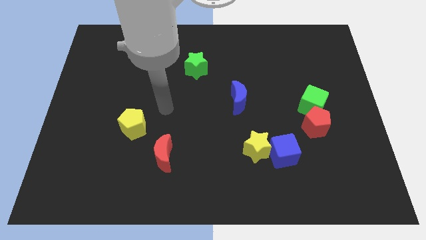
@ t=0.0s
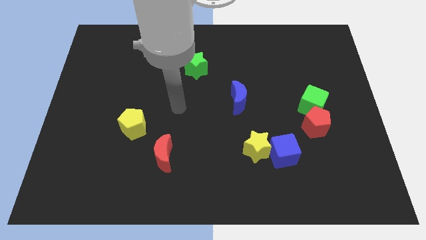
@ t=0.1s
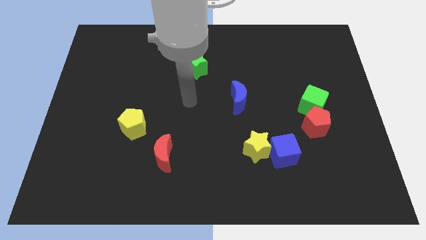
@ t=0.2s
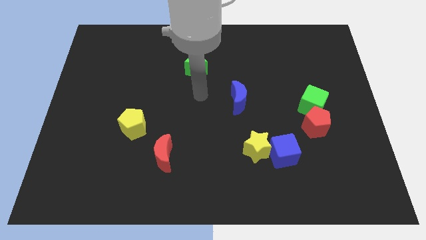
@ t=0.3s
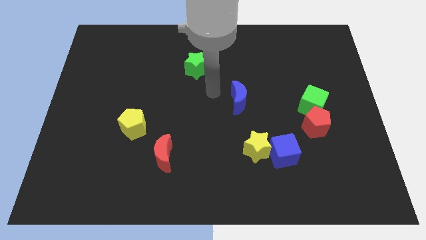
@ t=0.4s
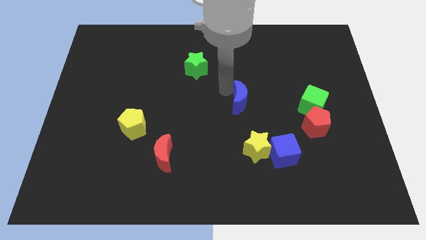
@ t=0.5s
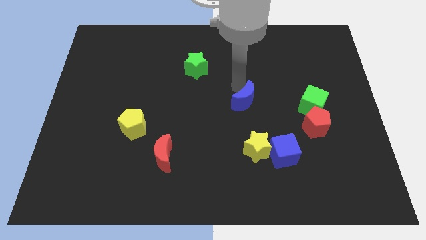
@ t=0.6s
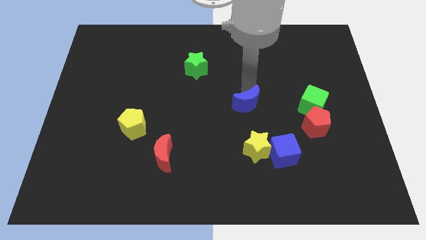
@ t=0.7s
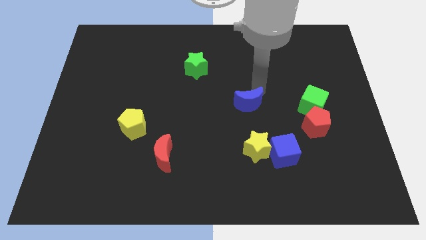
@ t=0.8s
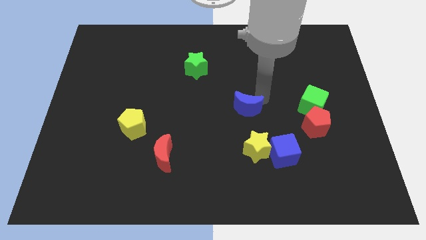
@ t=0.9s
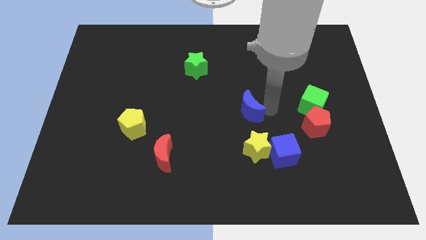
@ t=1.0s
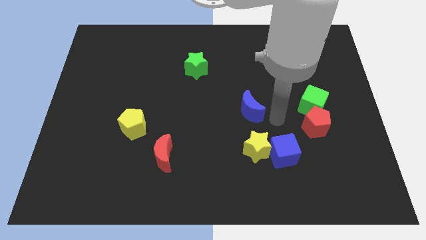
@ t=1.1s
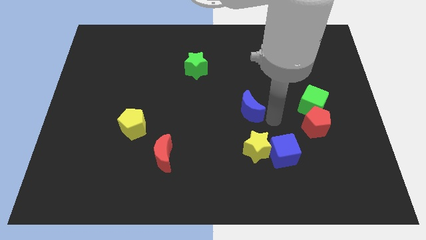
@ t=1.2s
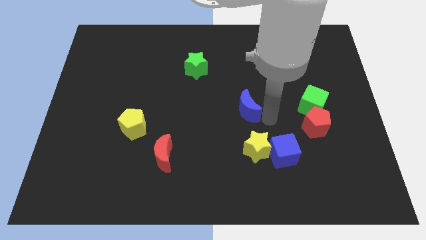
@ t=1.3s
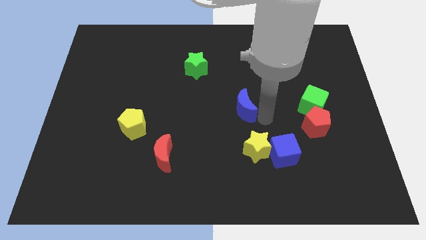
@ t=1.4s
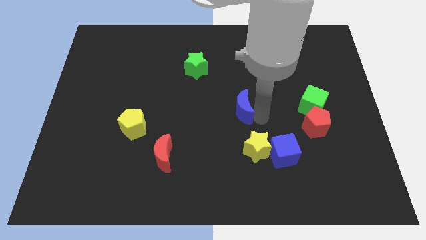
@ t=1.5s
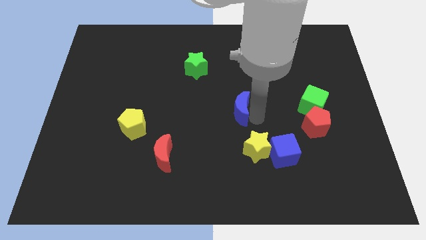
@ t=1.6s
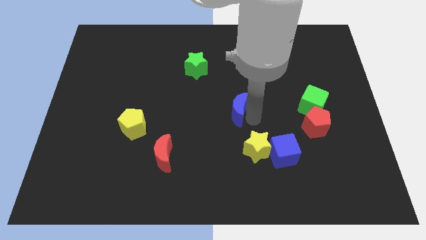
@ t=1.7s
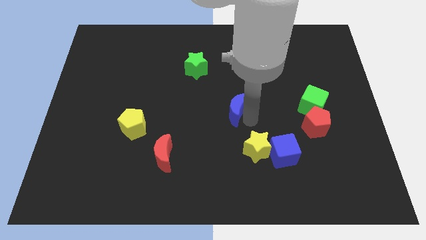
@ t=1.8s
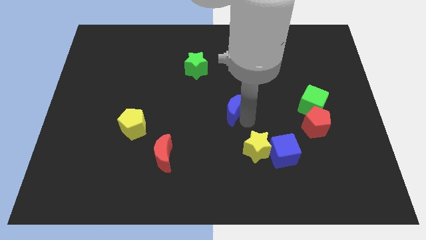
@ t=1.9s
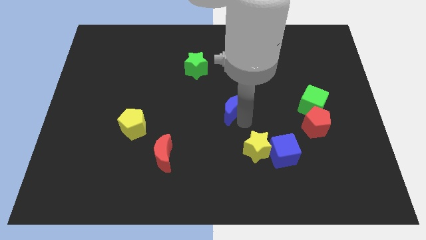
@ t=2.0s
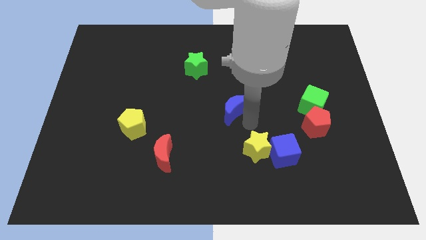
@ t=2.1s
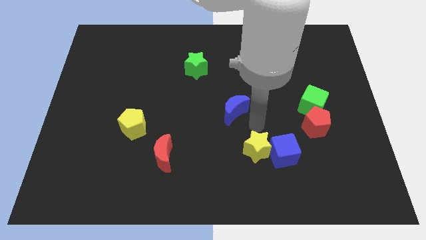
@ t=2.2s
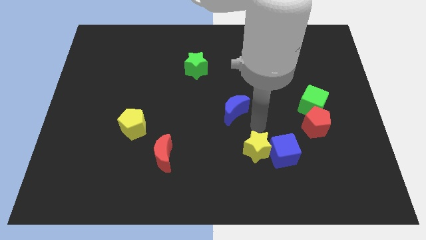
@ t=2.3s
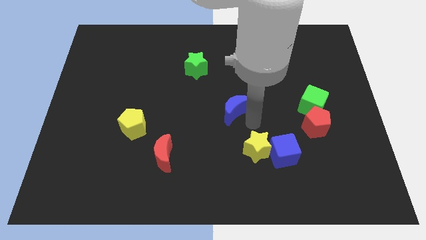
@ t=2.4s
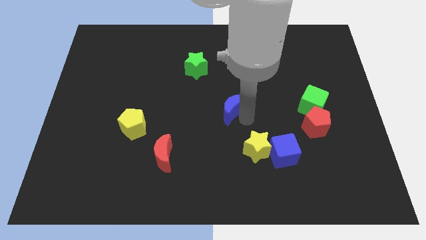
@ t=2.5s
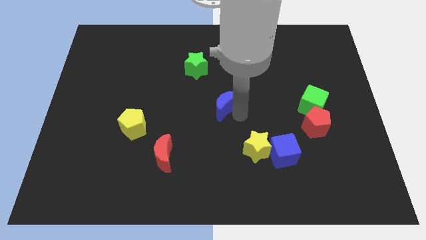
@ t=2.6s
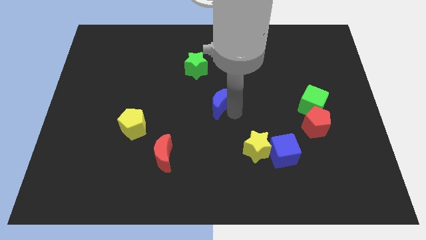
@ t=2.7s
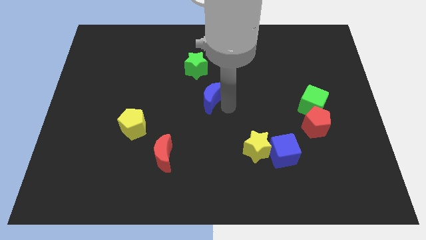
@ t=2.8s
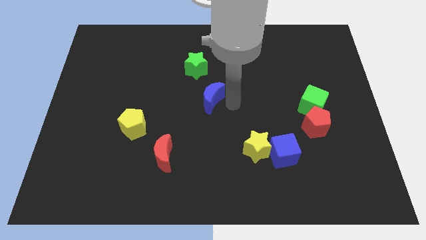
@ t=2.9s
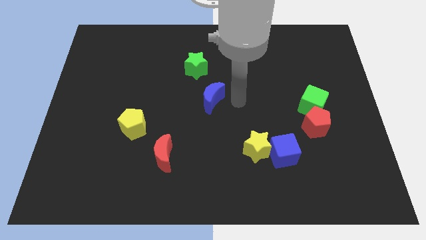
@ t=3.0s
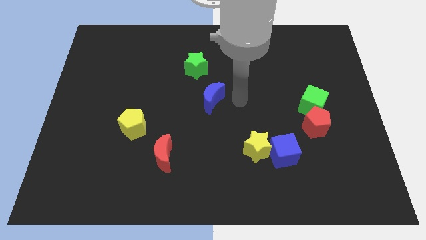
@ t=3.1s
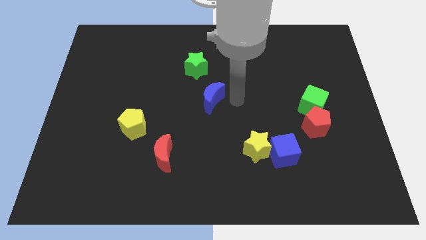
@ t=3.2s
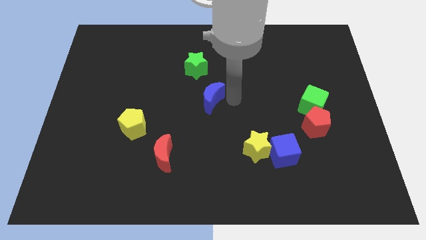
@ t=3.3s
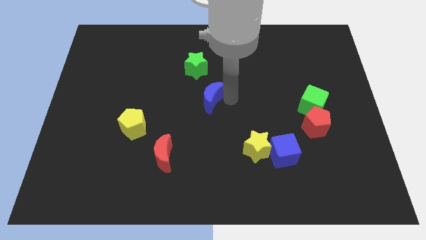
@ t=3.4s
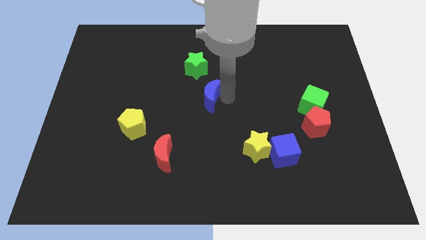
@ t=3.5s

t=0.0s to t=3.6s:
push the blue moon left a little bit

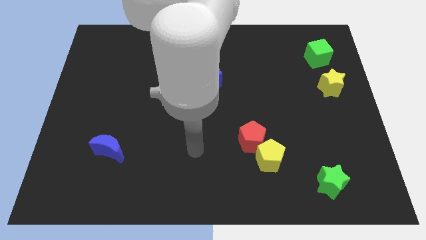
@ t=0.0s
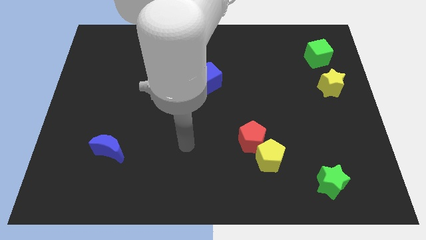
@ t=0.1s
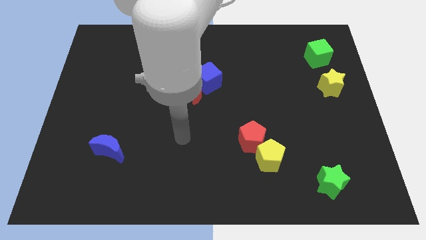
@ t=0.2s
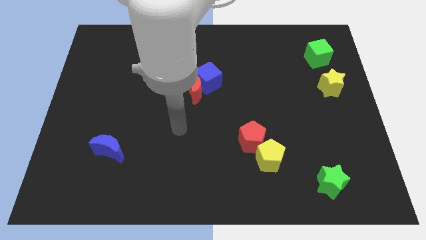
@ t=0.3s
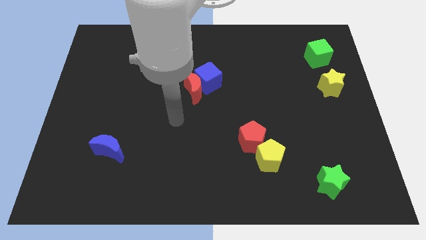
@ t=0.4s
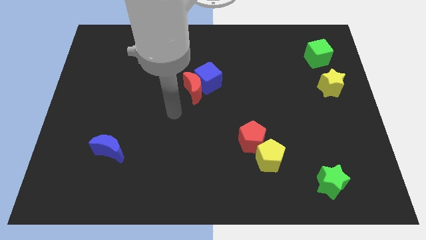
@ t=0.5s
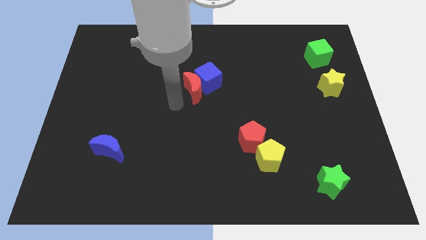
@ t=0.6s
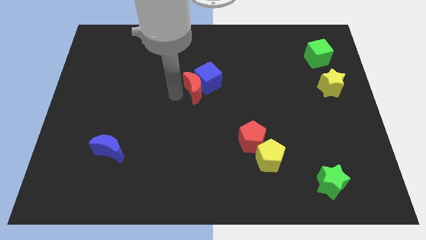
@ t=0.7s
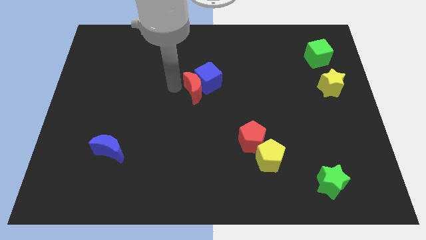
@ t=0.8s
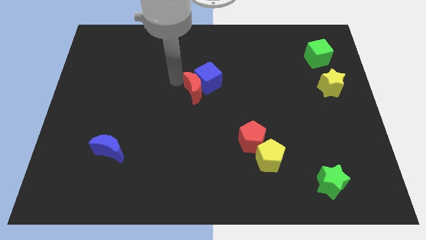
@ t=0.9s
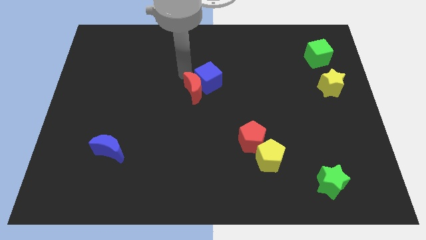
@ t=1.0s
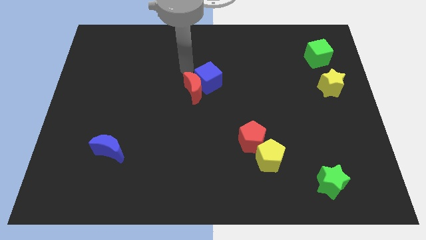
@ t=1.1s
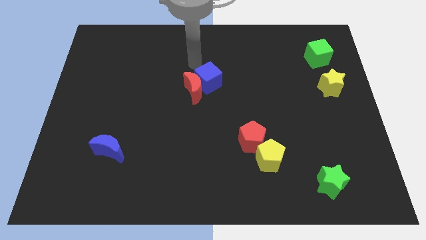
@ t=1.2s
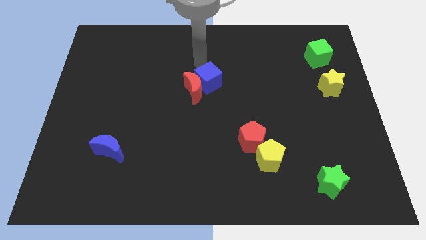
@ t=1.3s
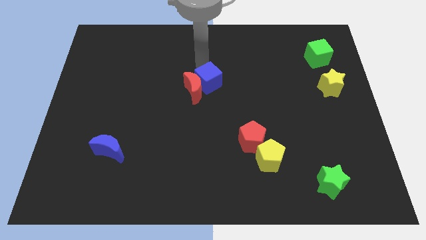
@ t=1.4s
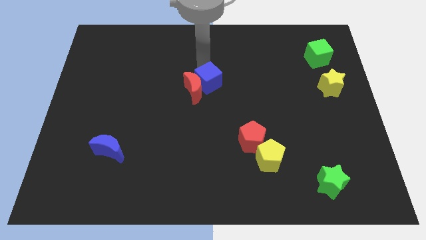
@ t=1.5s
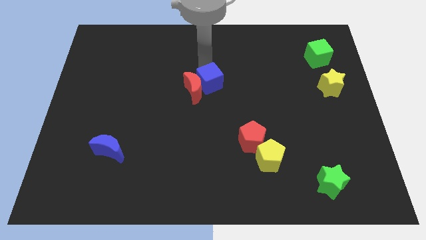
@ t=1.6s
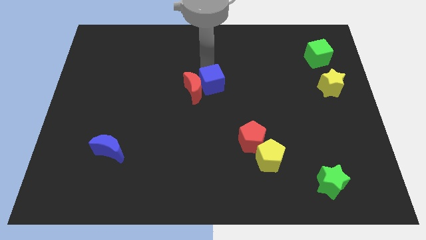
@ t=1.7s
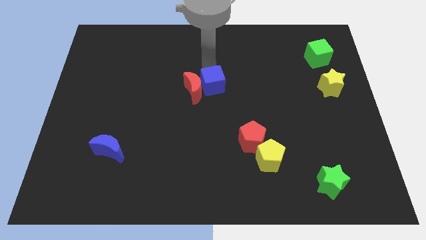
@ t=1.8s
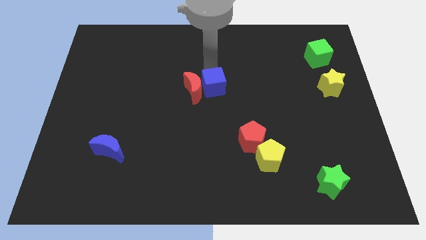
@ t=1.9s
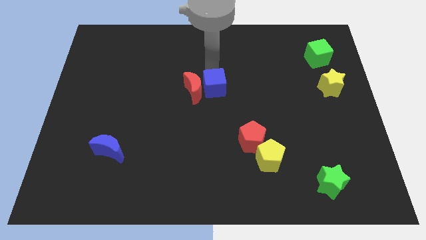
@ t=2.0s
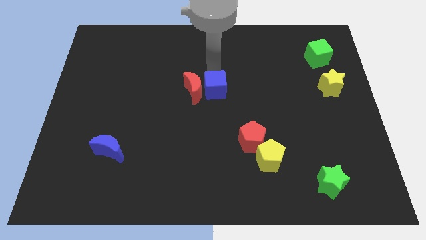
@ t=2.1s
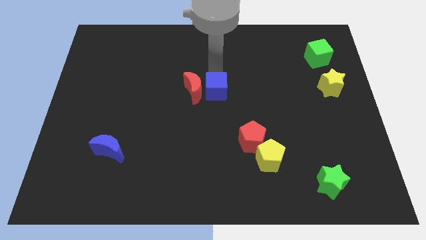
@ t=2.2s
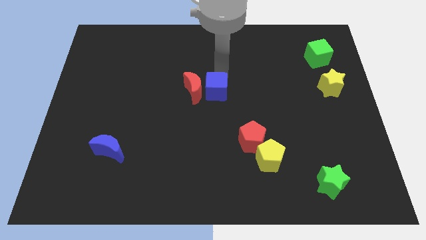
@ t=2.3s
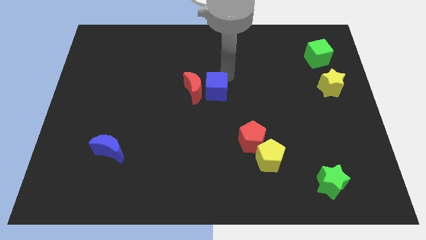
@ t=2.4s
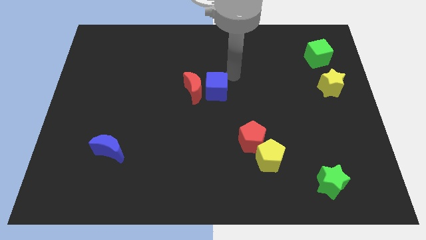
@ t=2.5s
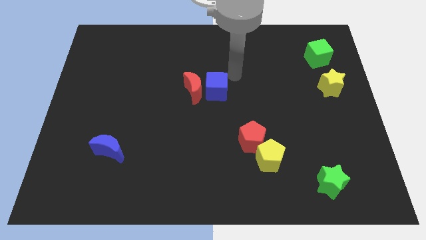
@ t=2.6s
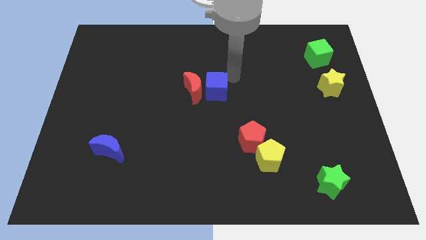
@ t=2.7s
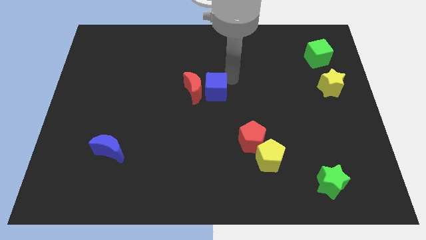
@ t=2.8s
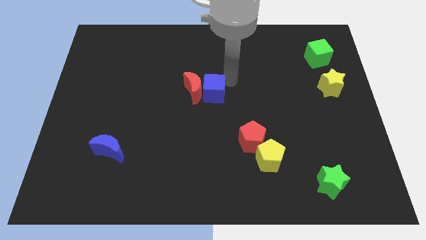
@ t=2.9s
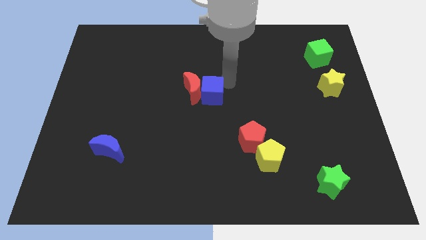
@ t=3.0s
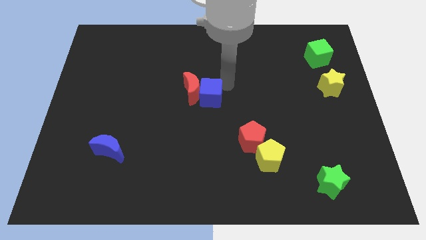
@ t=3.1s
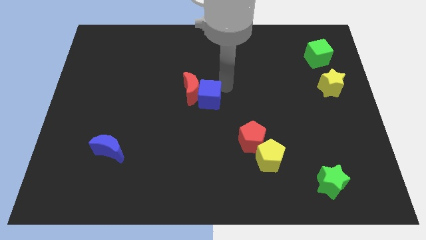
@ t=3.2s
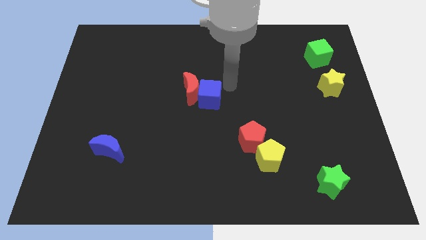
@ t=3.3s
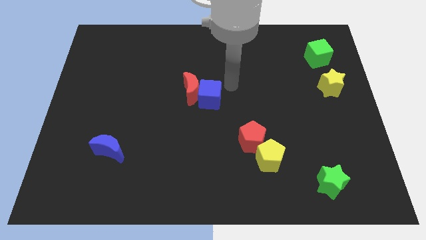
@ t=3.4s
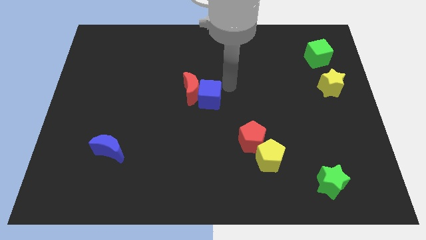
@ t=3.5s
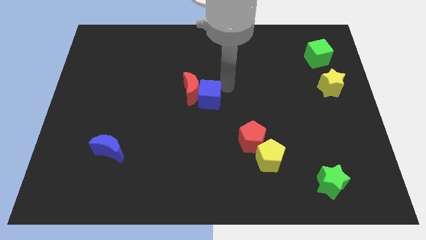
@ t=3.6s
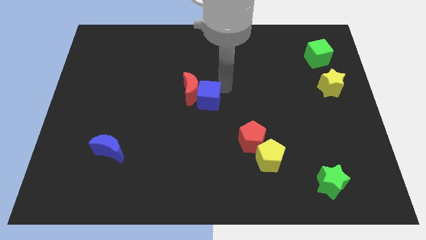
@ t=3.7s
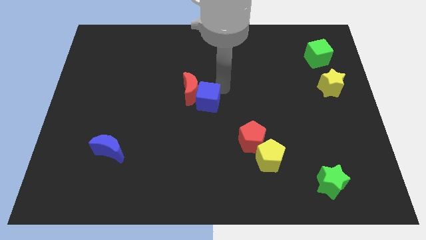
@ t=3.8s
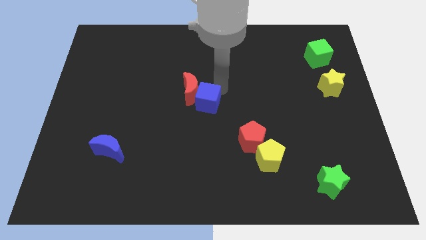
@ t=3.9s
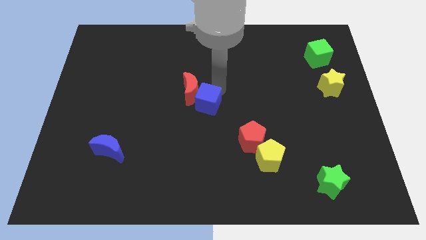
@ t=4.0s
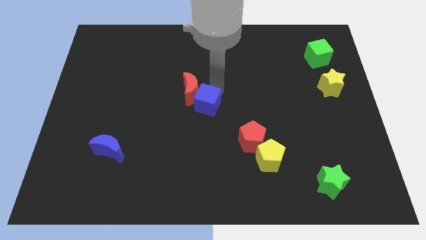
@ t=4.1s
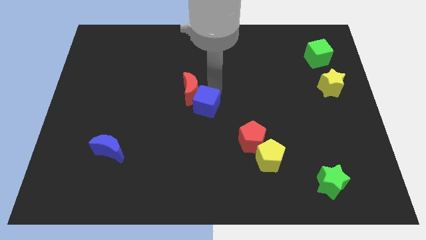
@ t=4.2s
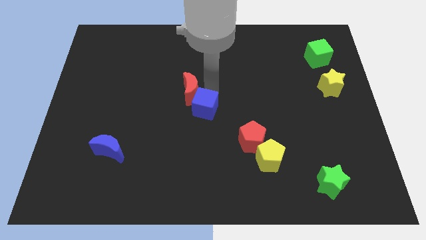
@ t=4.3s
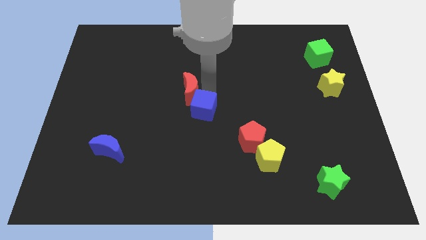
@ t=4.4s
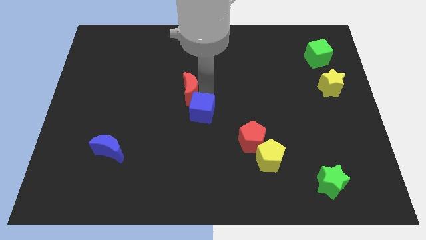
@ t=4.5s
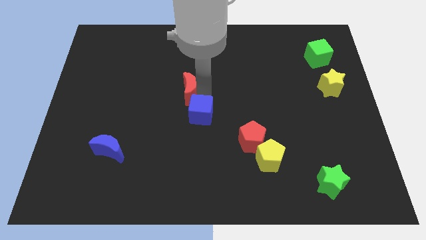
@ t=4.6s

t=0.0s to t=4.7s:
slide the blue cube somewhat down and left diagonally
